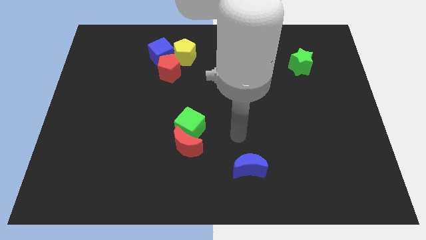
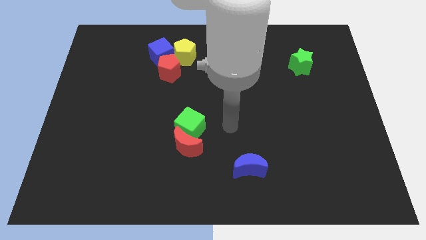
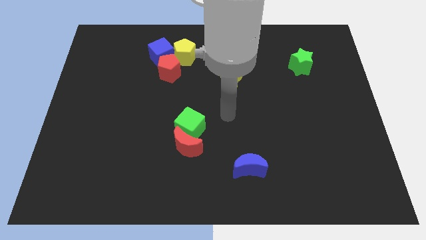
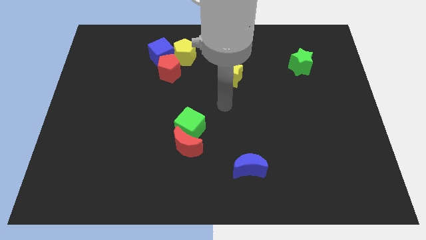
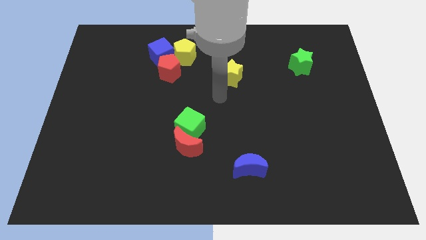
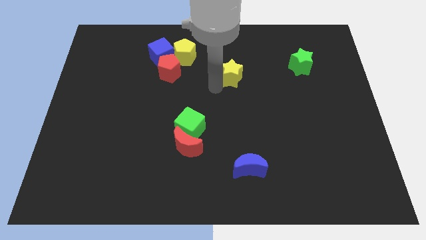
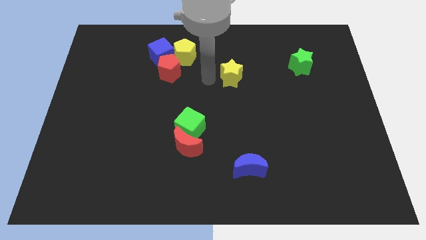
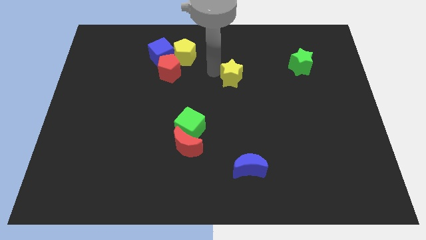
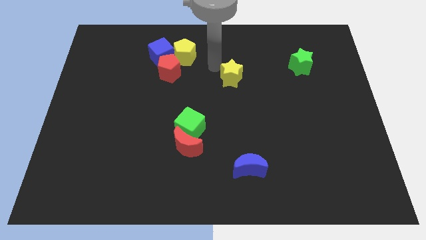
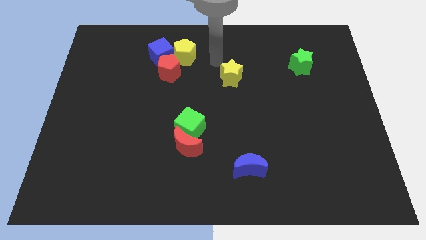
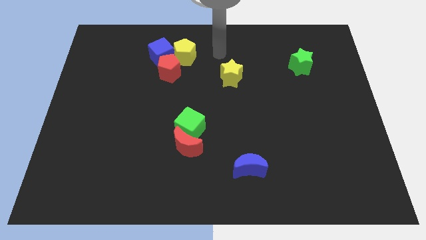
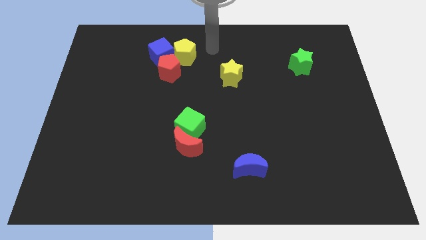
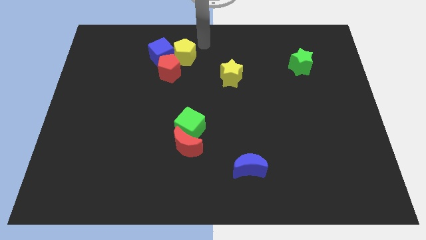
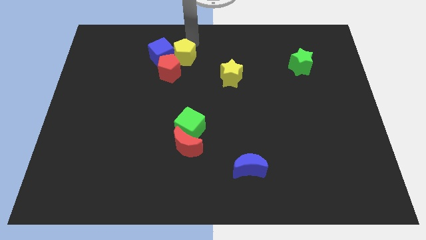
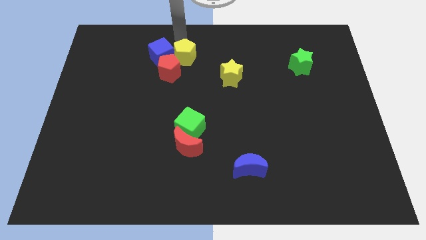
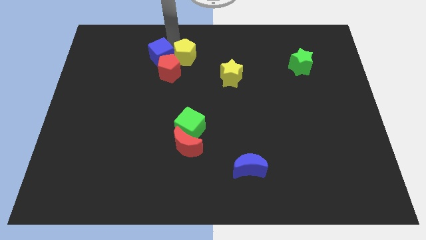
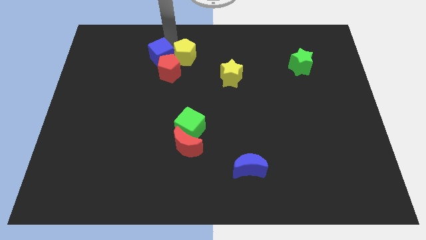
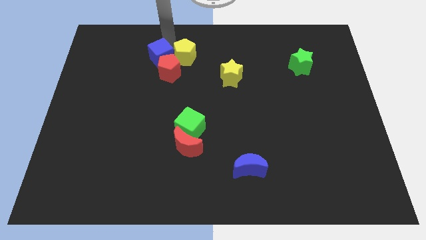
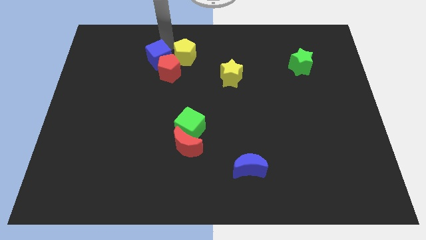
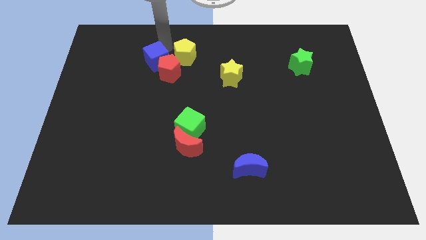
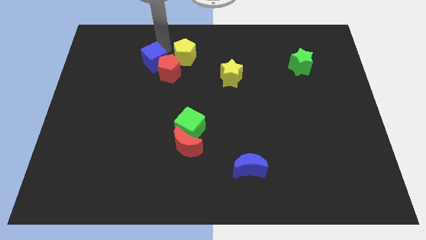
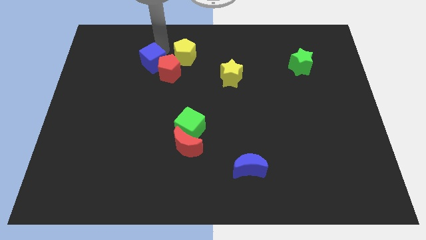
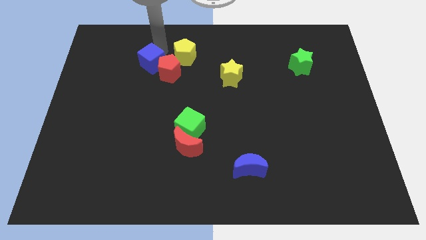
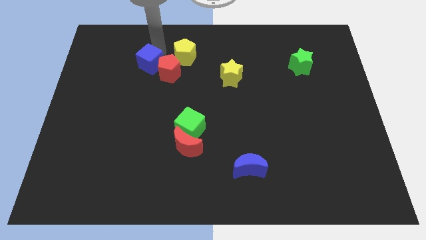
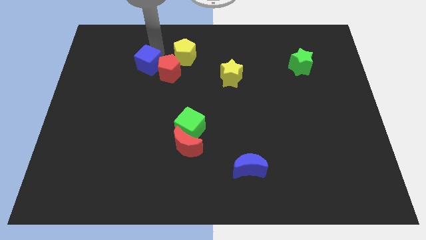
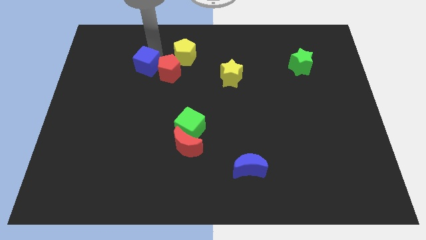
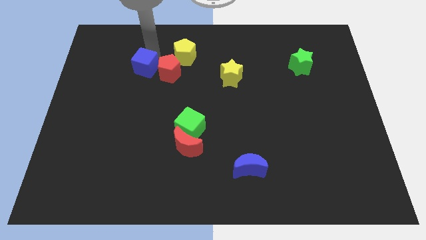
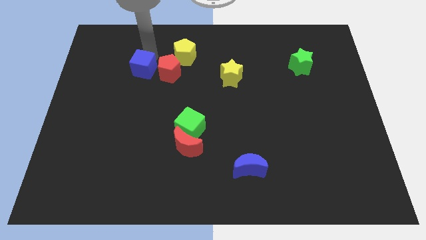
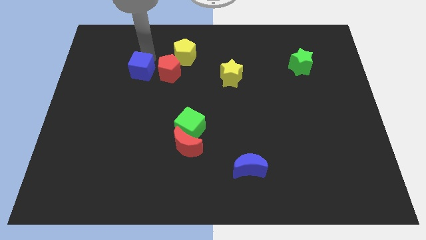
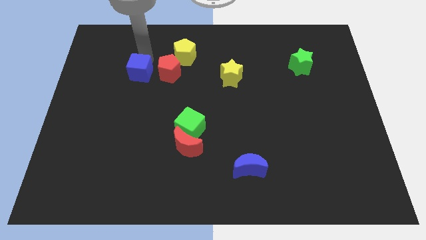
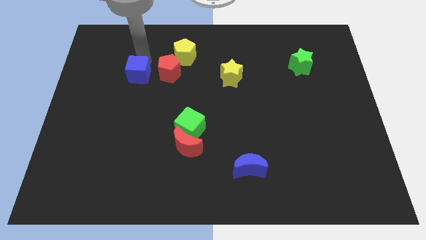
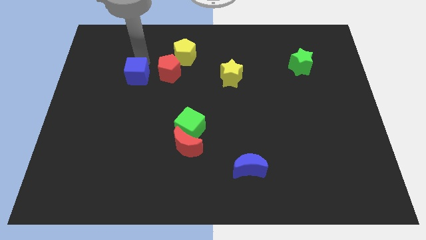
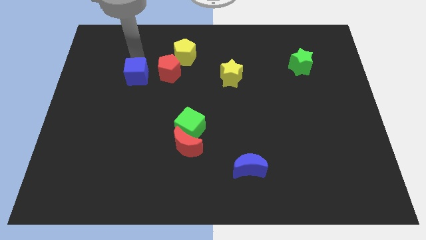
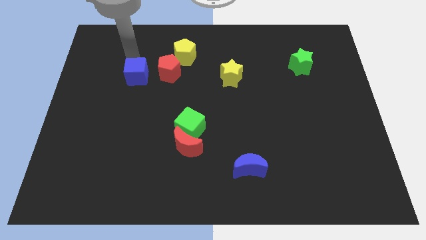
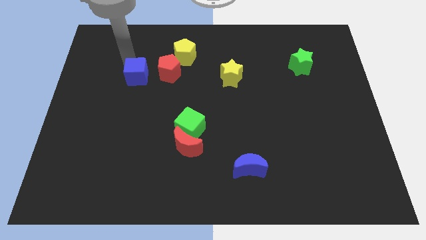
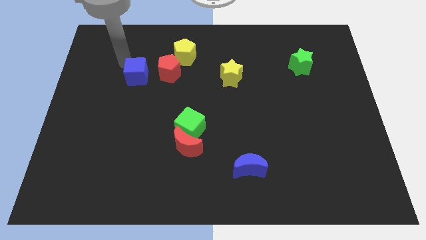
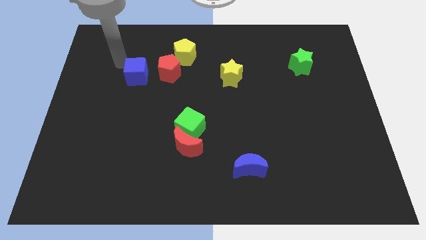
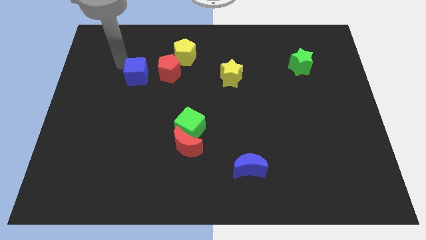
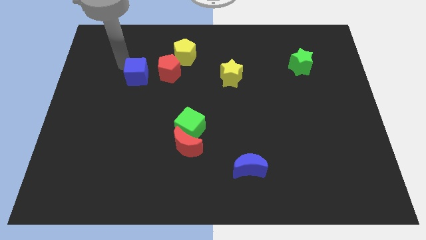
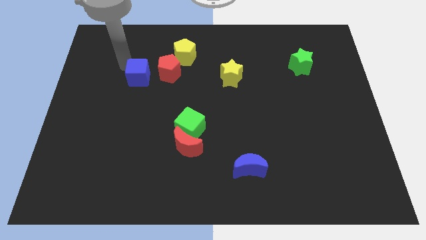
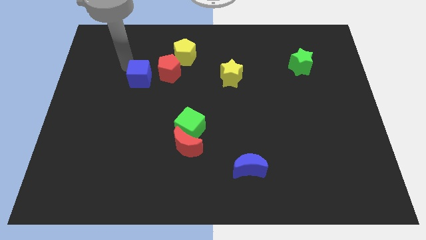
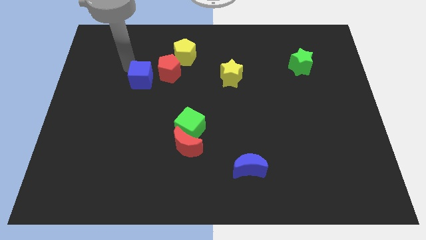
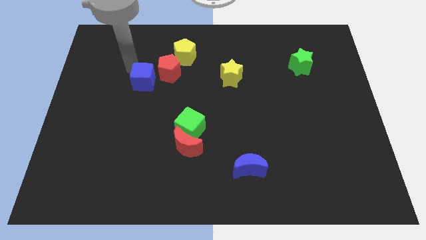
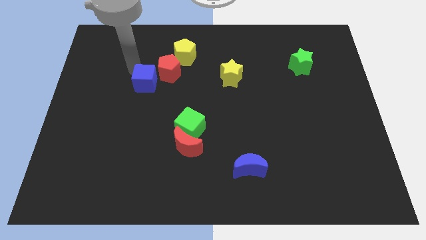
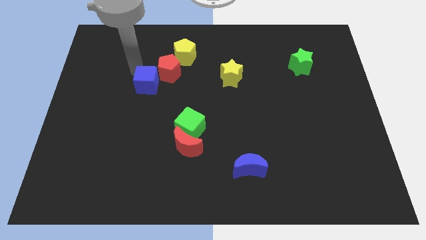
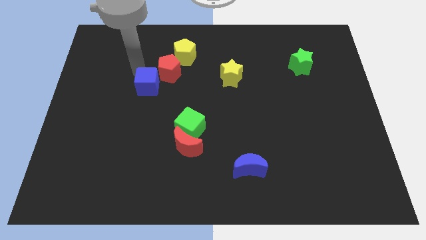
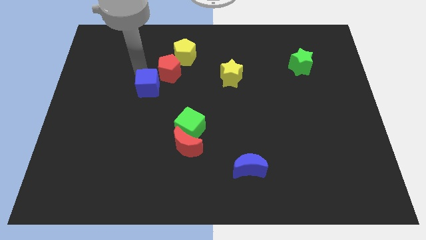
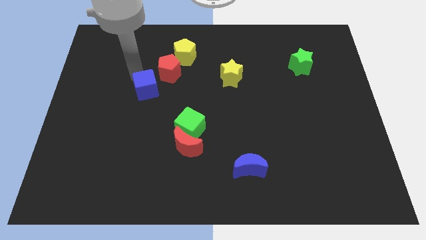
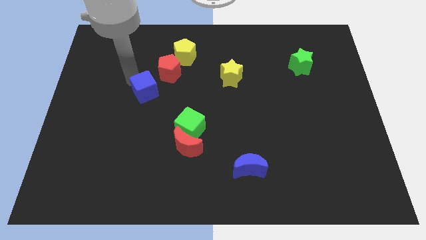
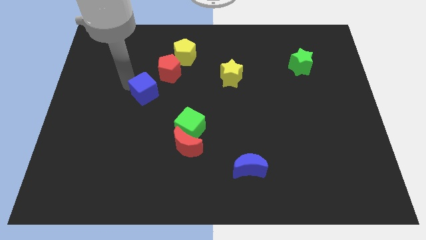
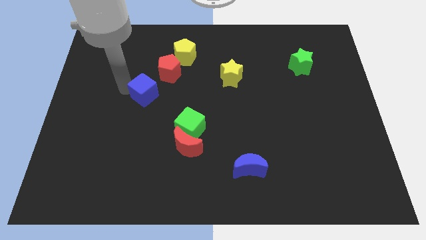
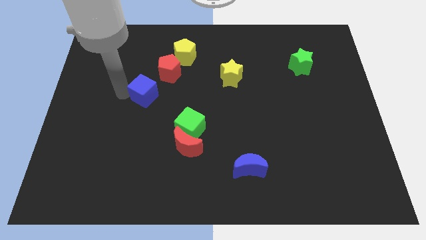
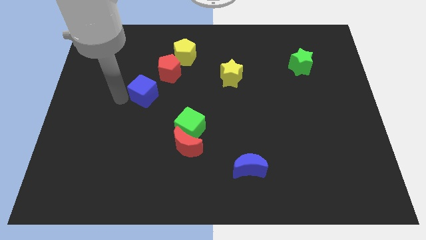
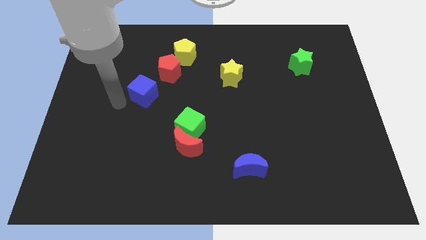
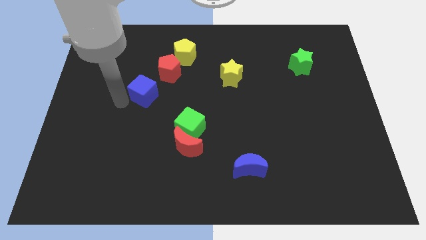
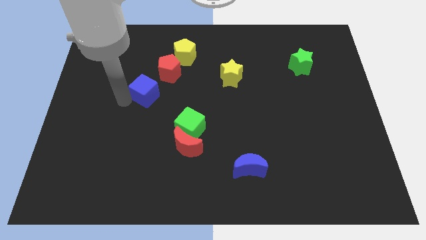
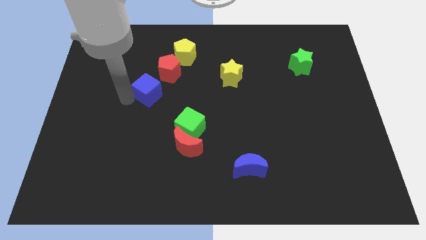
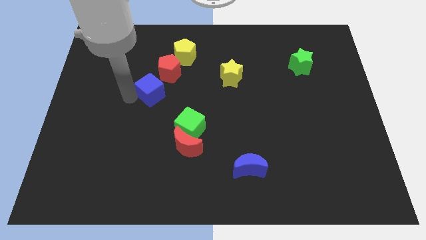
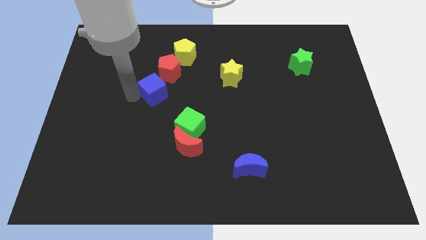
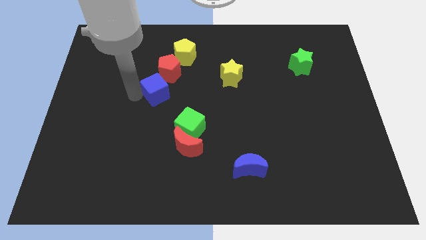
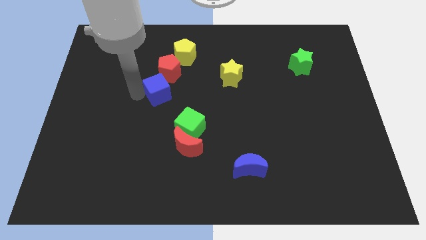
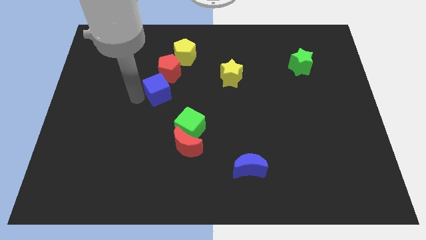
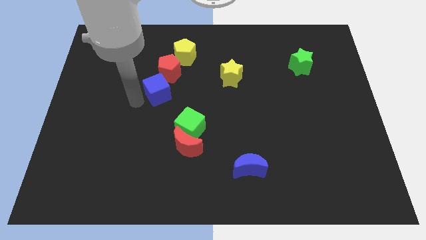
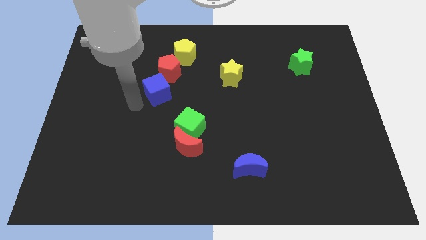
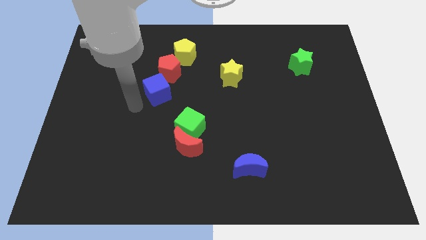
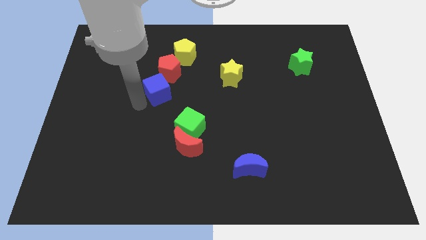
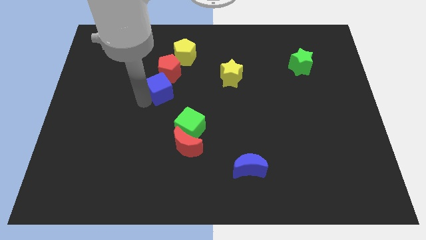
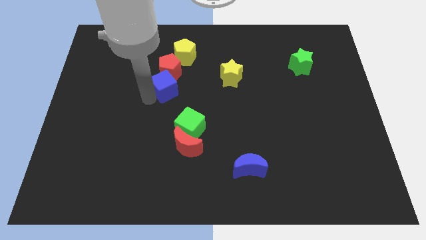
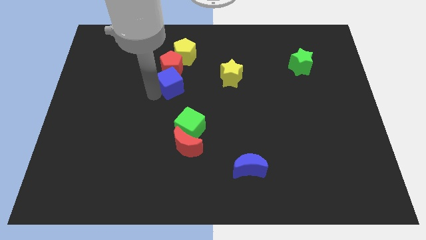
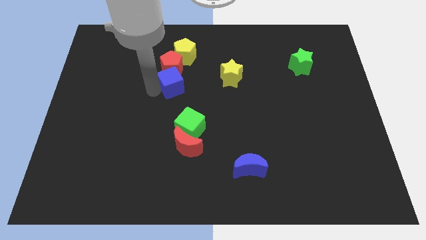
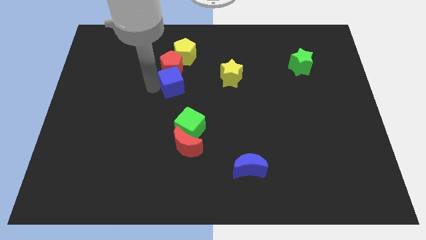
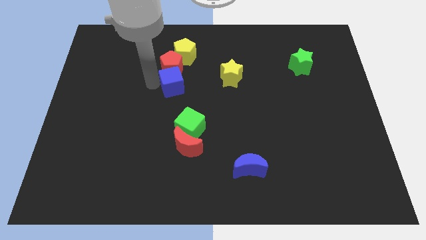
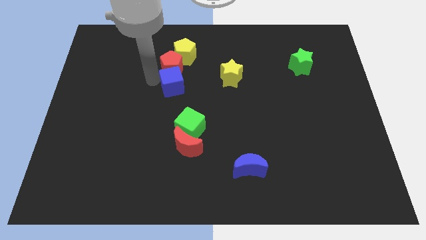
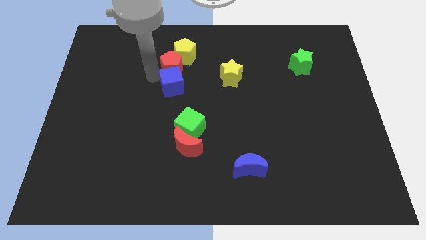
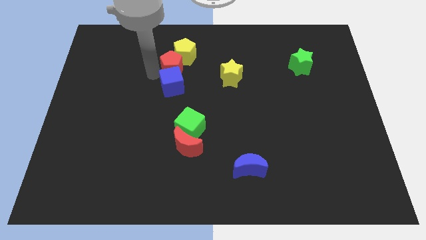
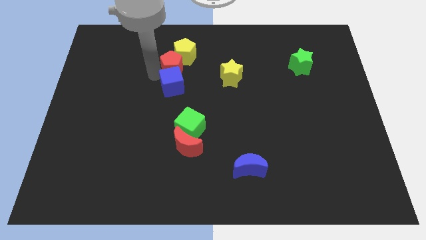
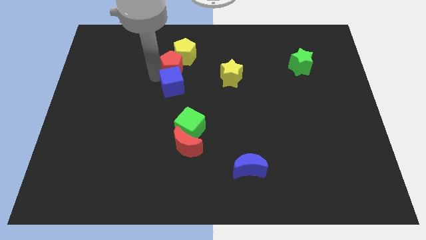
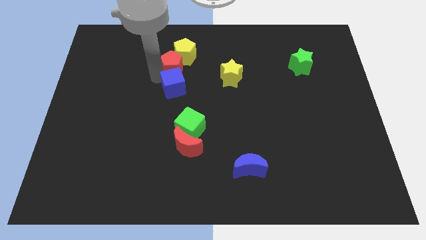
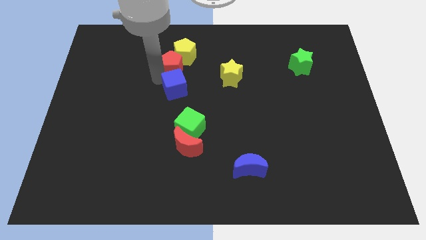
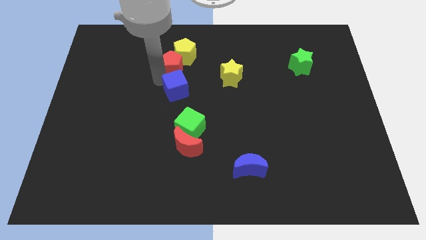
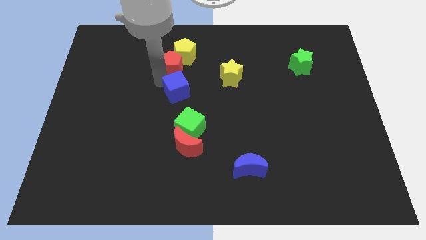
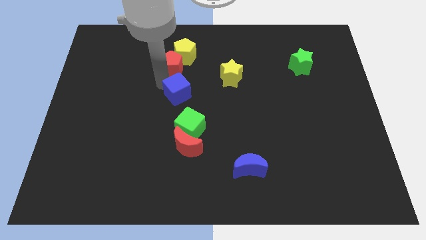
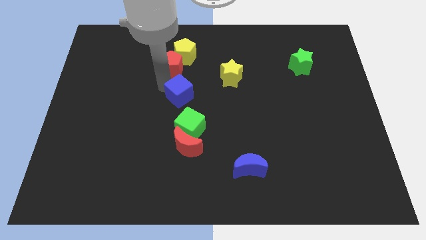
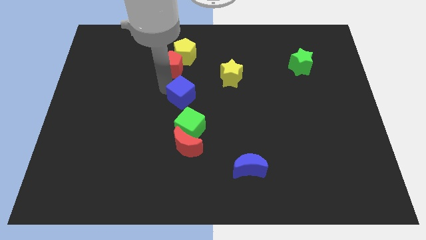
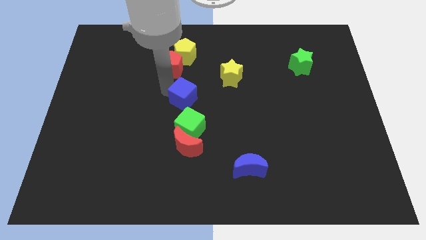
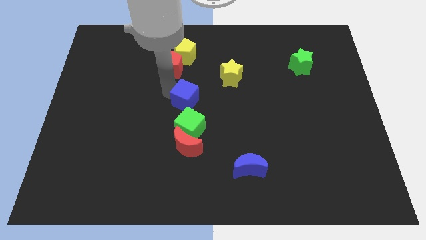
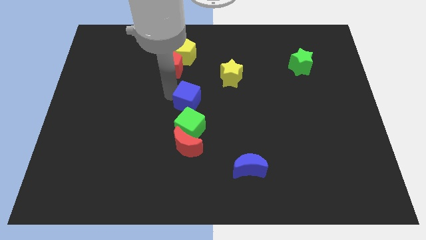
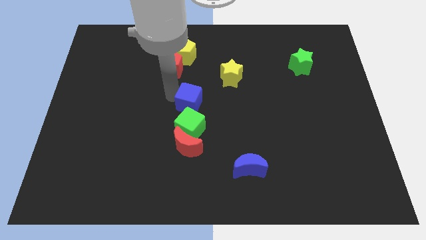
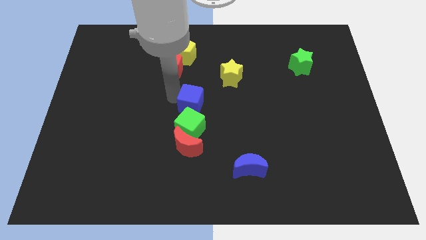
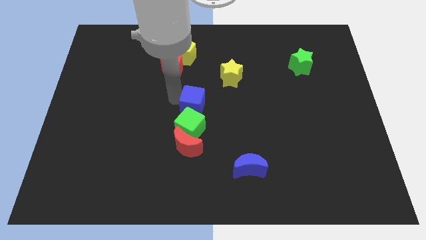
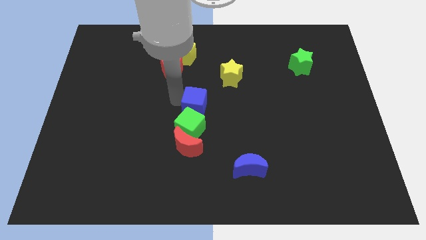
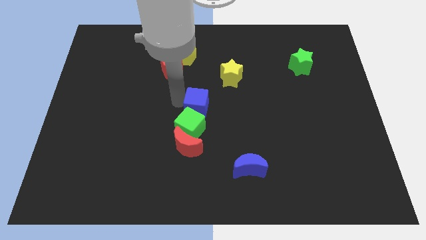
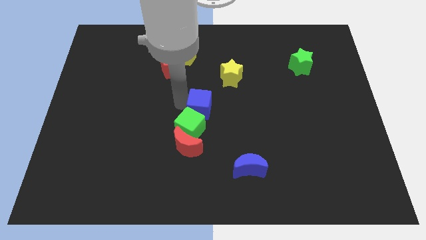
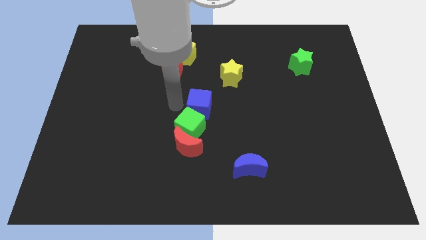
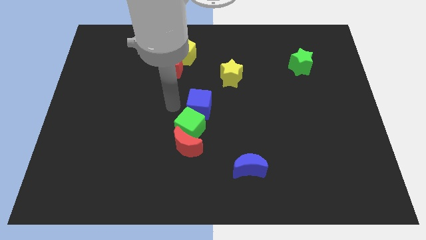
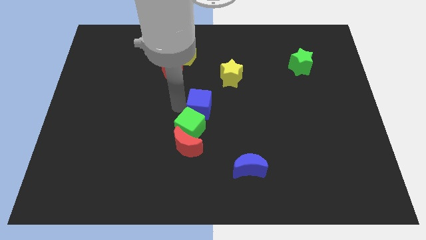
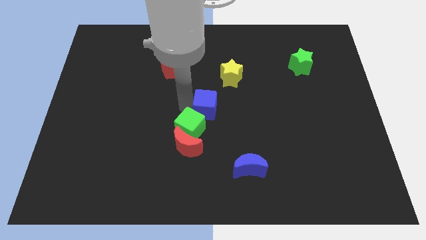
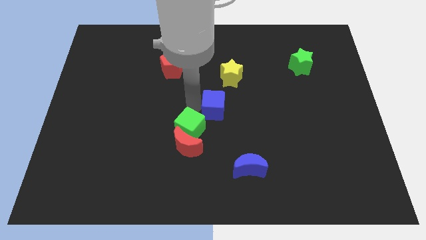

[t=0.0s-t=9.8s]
move the blue cube to the bottom side of the yellow star
